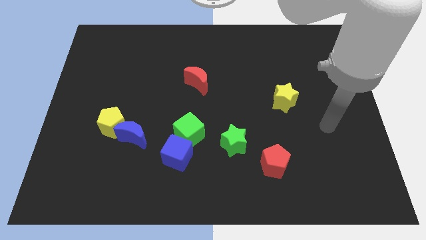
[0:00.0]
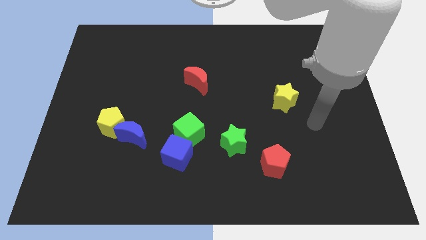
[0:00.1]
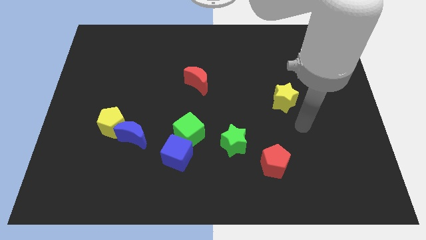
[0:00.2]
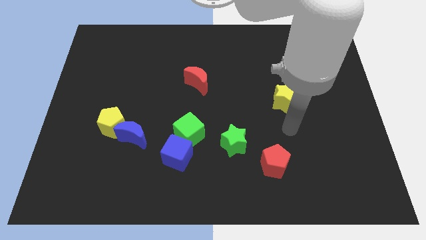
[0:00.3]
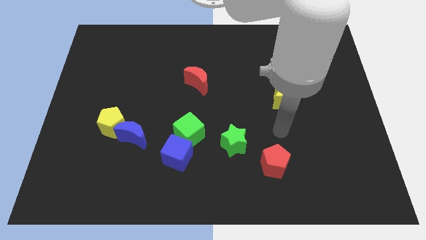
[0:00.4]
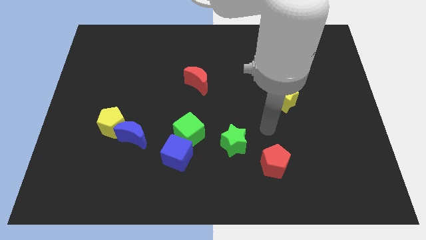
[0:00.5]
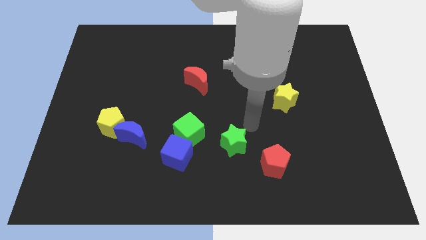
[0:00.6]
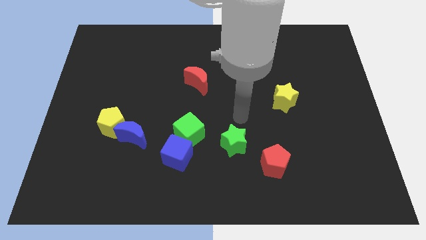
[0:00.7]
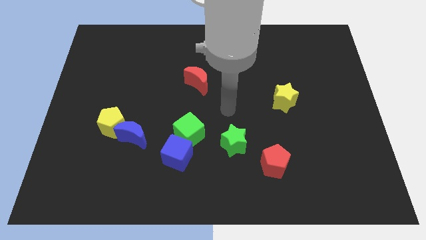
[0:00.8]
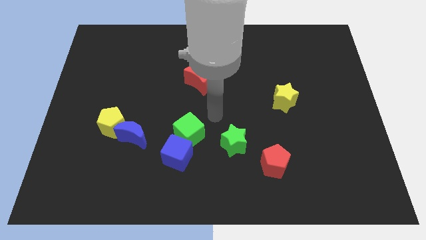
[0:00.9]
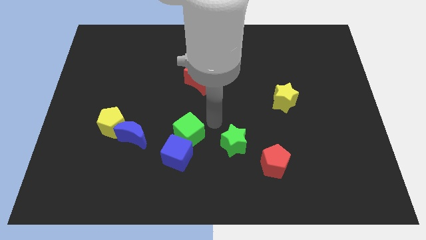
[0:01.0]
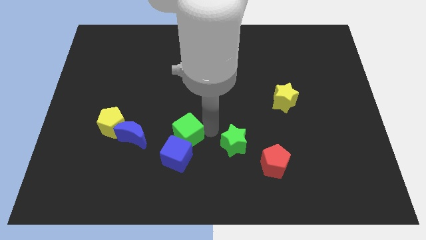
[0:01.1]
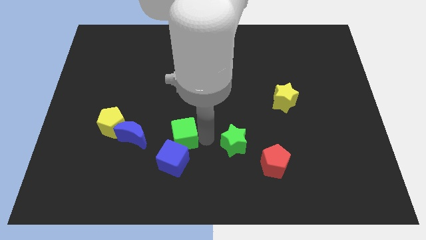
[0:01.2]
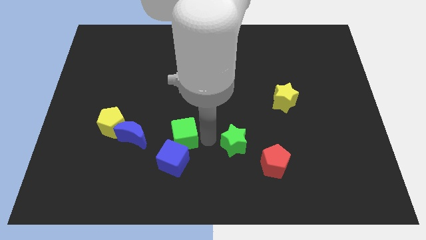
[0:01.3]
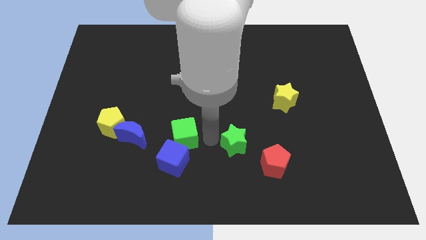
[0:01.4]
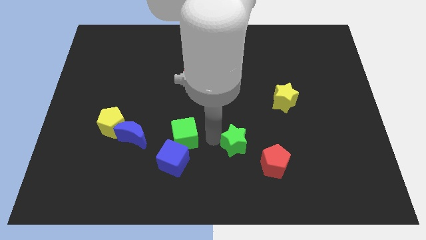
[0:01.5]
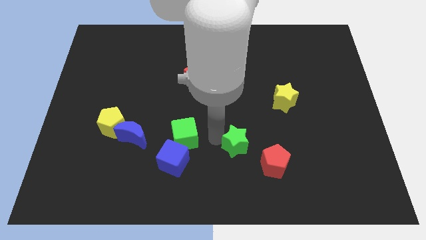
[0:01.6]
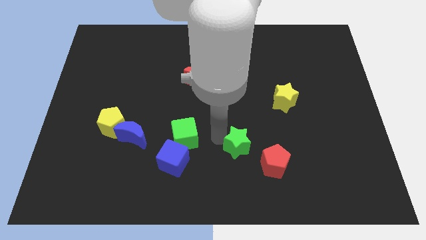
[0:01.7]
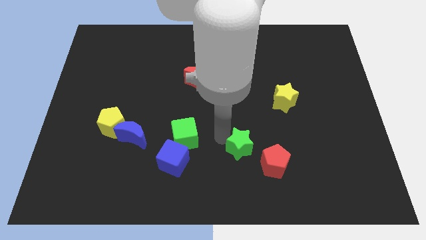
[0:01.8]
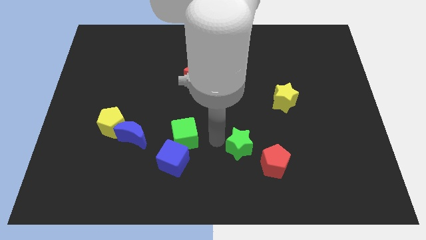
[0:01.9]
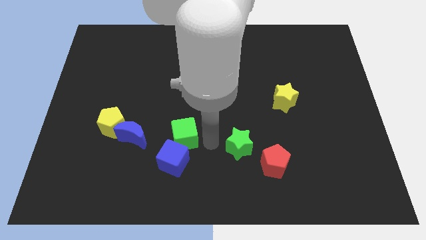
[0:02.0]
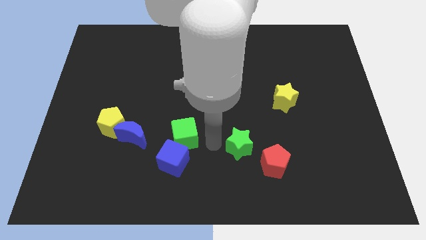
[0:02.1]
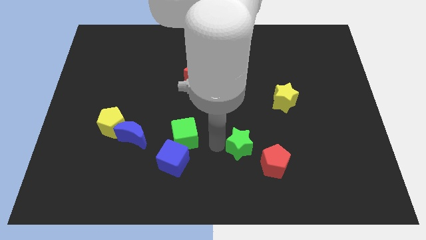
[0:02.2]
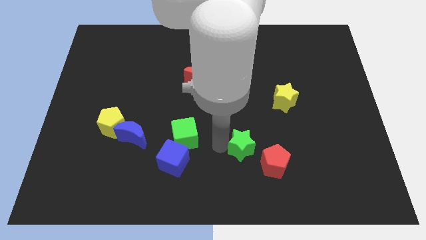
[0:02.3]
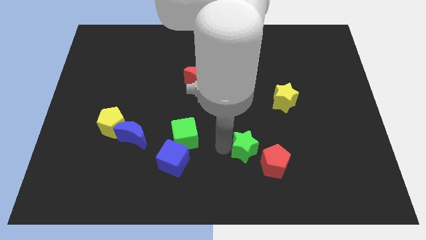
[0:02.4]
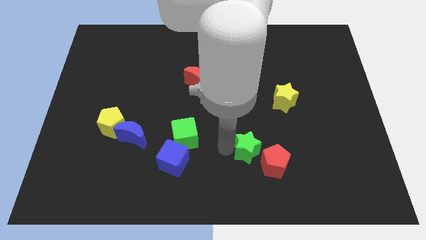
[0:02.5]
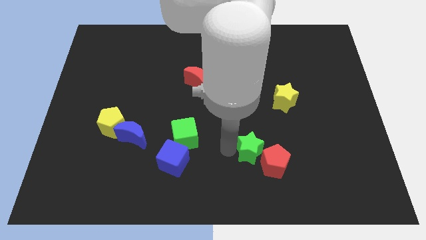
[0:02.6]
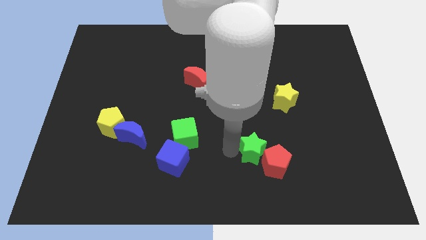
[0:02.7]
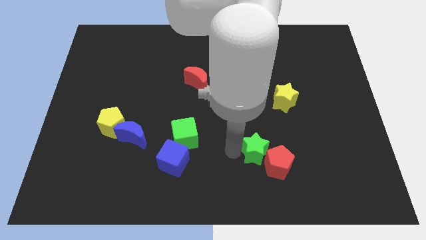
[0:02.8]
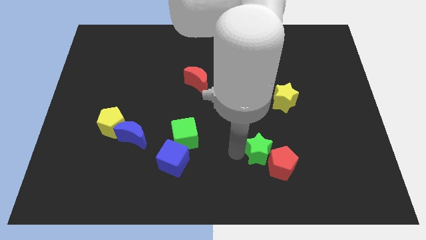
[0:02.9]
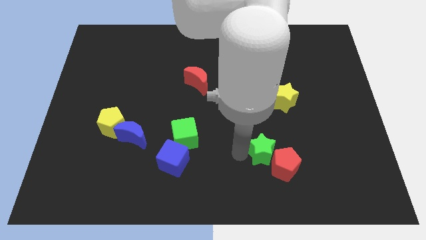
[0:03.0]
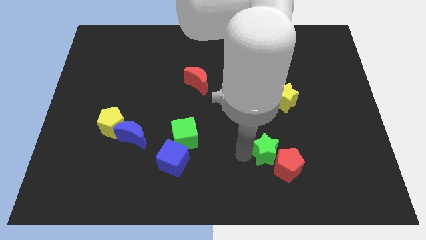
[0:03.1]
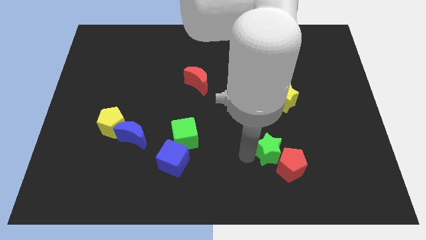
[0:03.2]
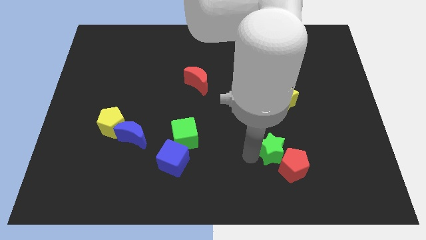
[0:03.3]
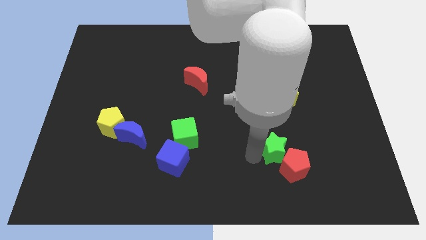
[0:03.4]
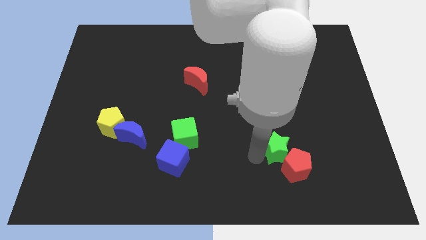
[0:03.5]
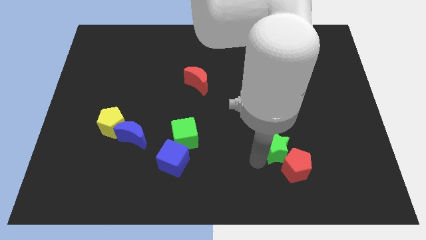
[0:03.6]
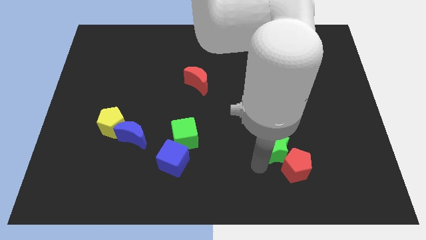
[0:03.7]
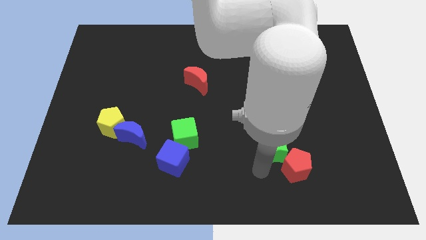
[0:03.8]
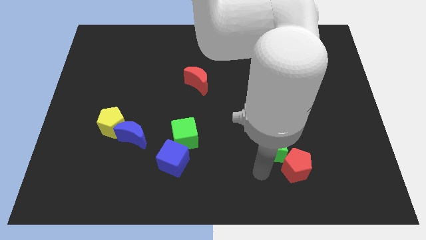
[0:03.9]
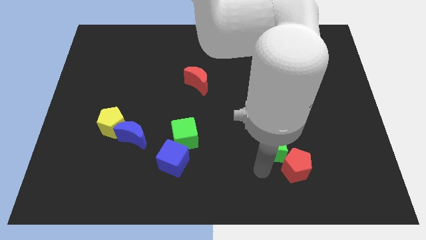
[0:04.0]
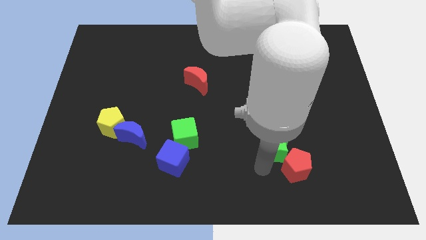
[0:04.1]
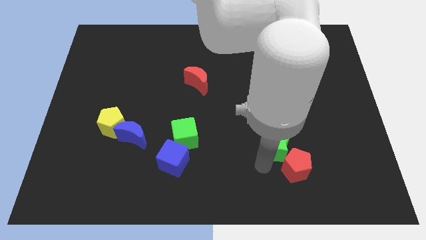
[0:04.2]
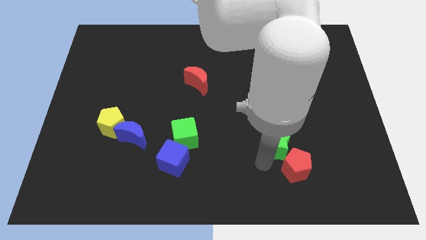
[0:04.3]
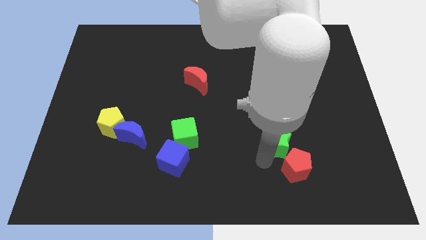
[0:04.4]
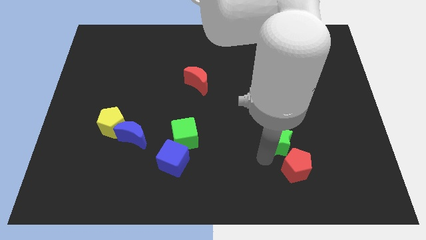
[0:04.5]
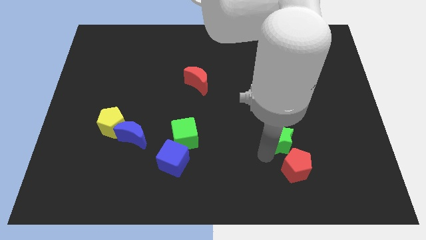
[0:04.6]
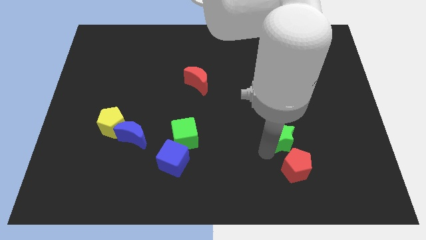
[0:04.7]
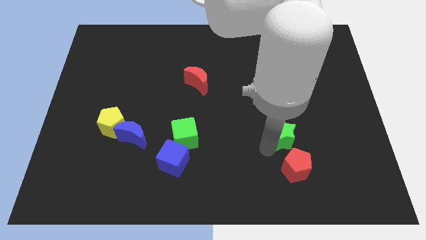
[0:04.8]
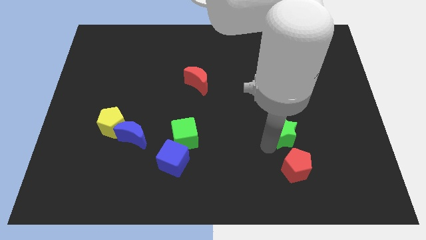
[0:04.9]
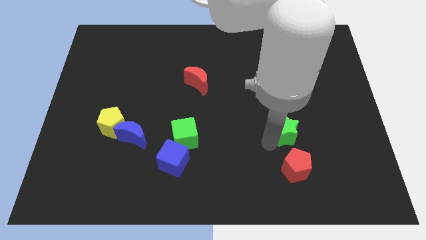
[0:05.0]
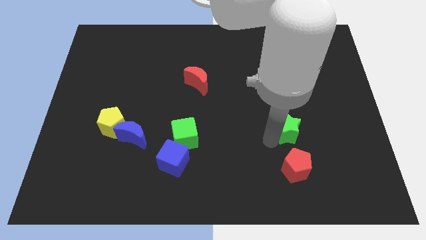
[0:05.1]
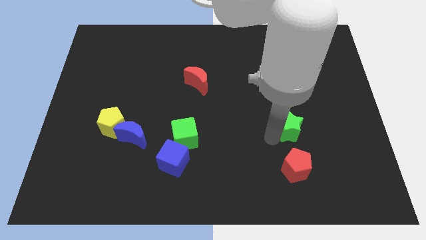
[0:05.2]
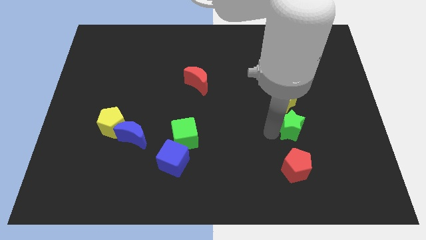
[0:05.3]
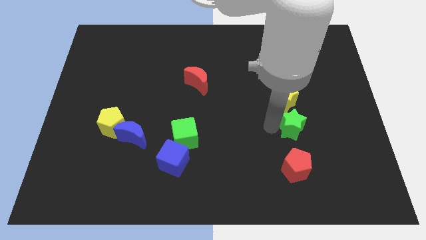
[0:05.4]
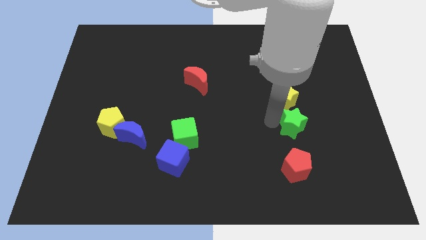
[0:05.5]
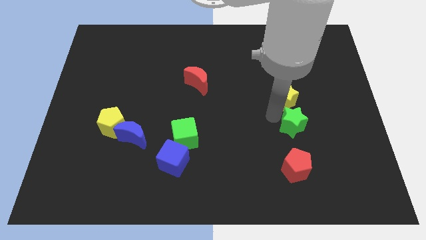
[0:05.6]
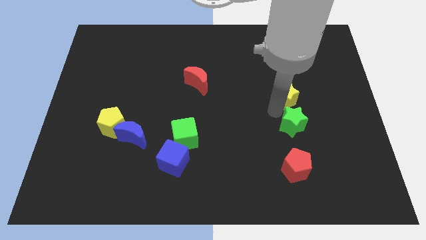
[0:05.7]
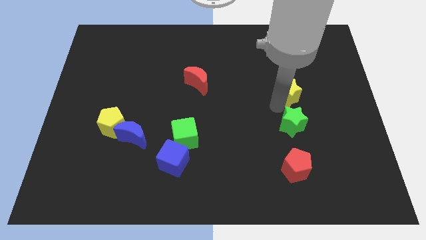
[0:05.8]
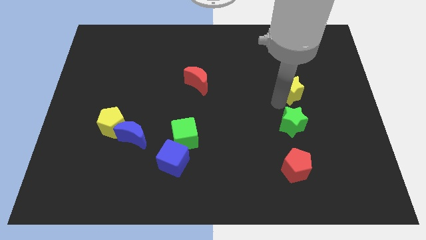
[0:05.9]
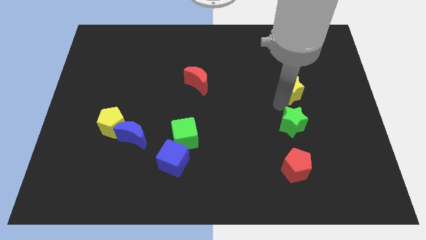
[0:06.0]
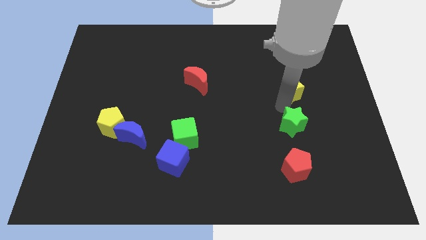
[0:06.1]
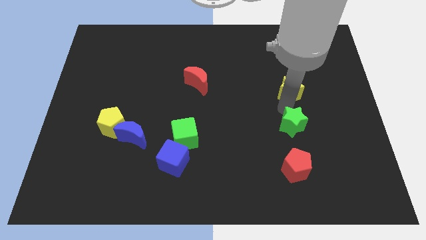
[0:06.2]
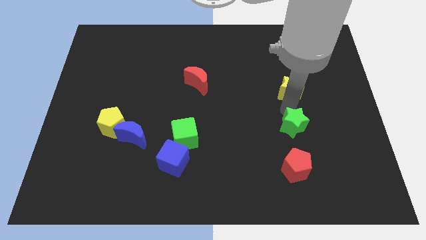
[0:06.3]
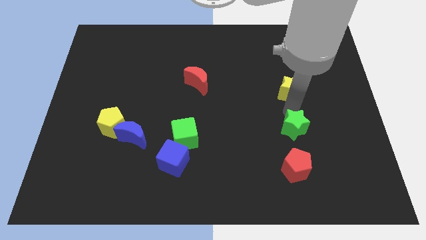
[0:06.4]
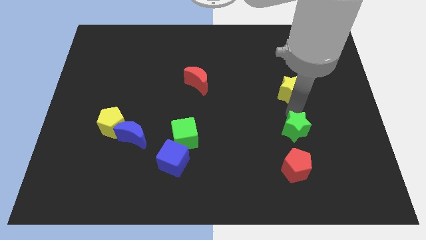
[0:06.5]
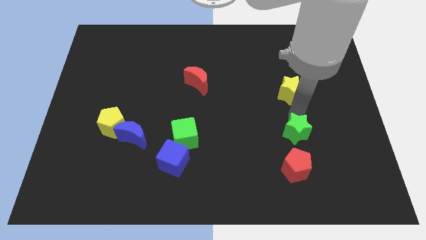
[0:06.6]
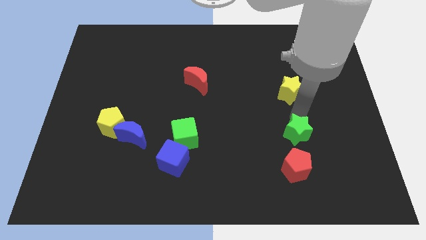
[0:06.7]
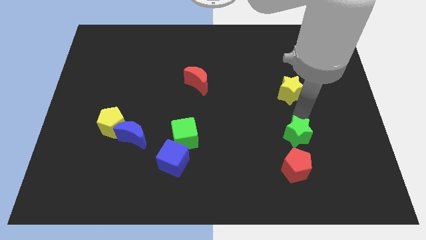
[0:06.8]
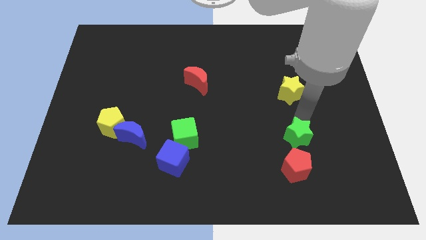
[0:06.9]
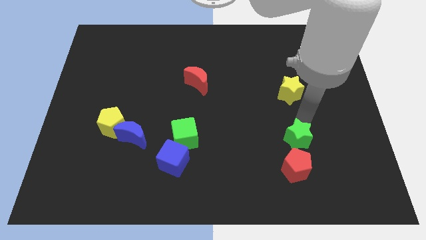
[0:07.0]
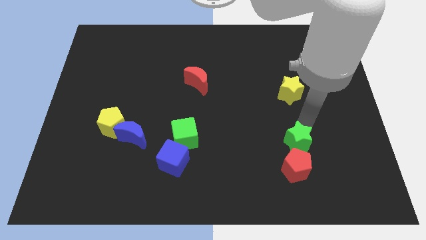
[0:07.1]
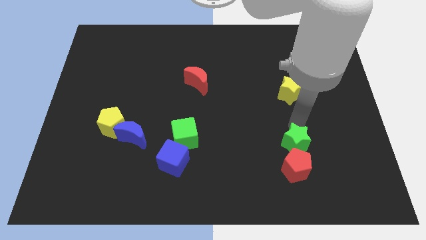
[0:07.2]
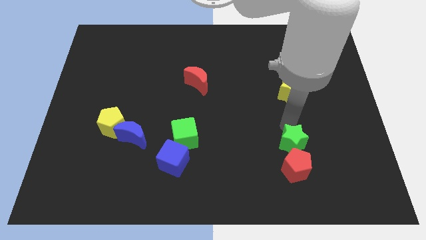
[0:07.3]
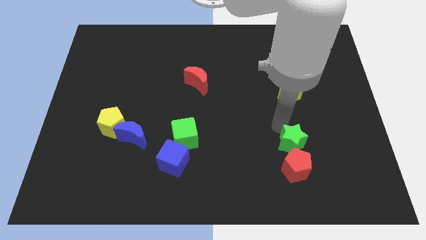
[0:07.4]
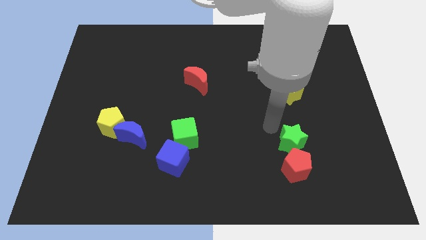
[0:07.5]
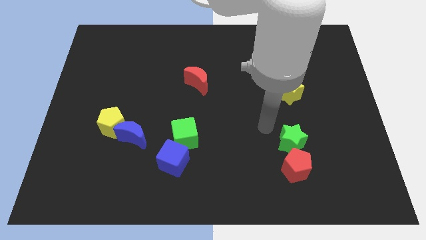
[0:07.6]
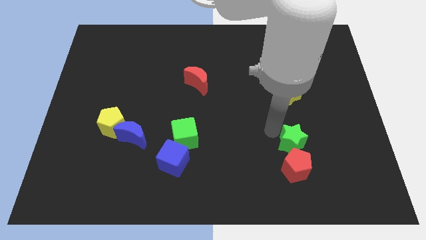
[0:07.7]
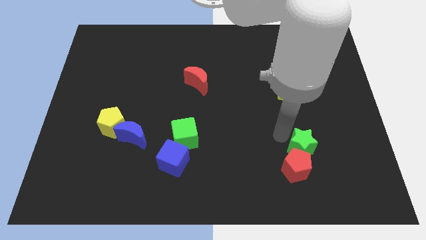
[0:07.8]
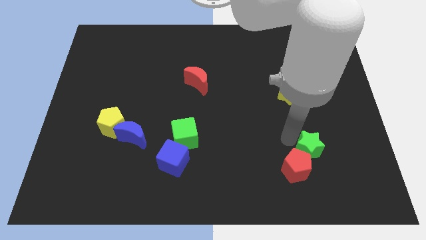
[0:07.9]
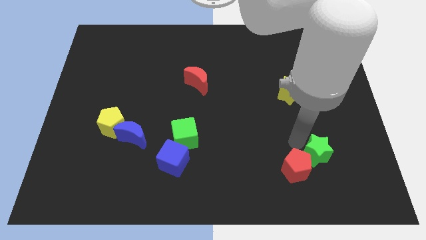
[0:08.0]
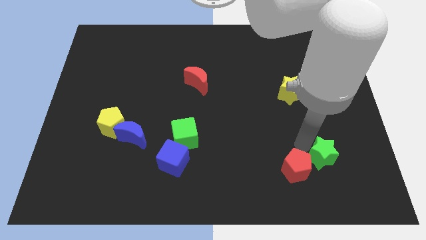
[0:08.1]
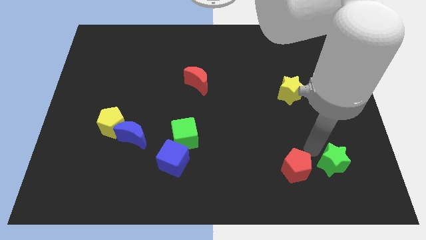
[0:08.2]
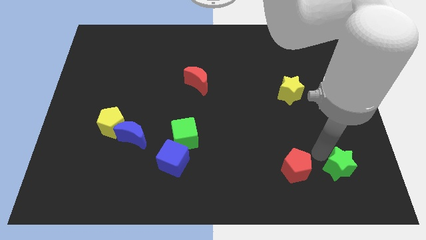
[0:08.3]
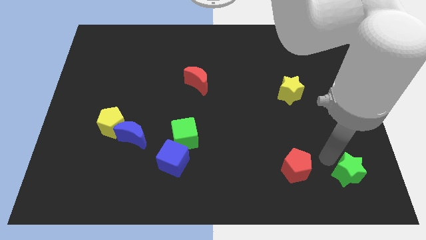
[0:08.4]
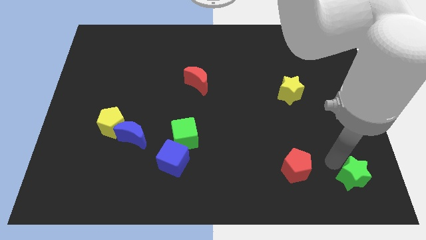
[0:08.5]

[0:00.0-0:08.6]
slide the green star to the bottom right corner
